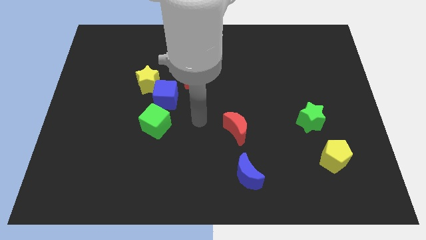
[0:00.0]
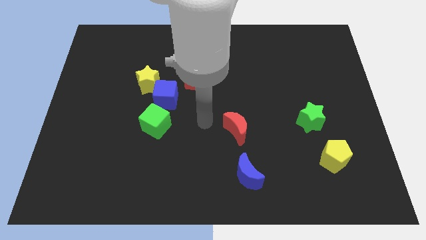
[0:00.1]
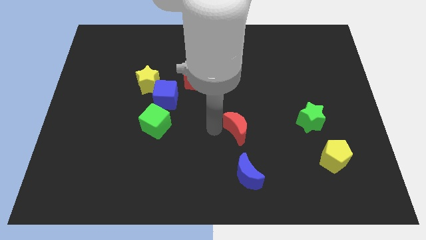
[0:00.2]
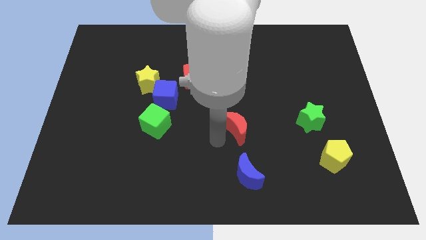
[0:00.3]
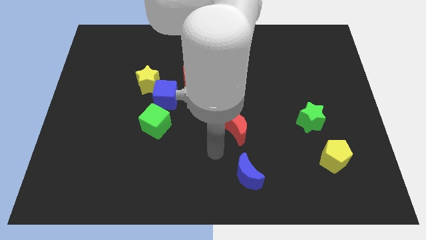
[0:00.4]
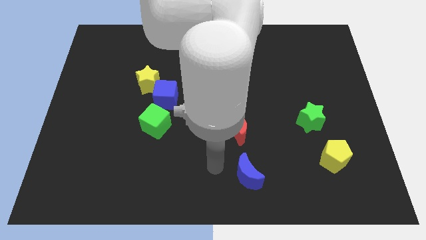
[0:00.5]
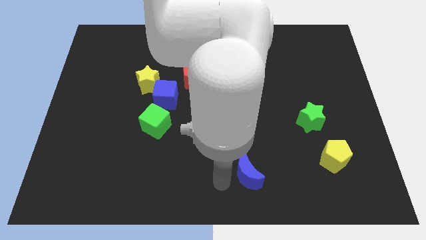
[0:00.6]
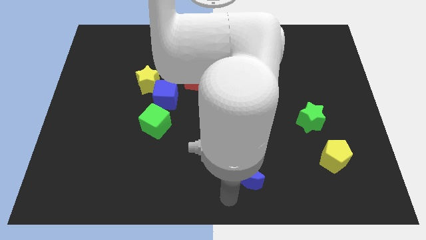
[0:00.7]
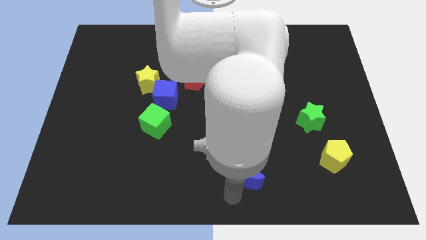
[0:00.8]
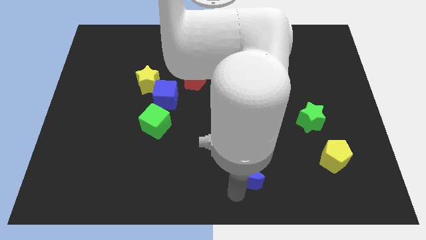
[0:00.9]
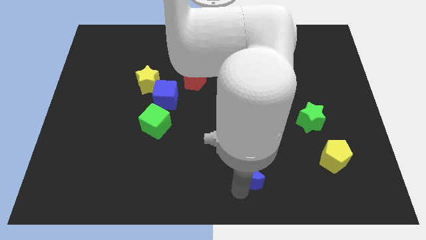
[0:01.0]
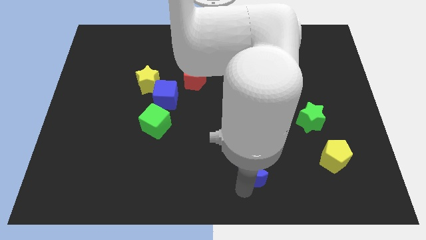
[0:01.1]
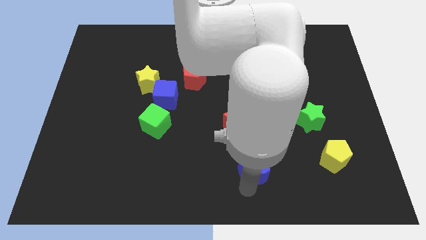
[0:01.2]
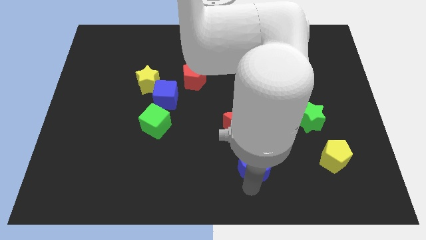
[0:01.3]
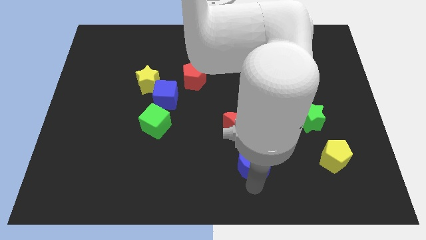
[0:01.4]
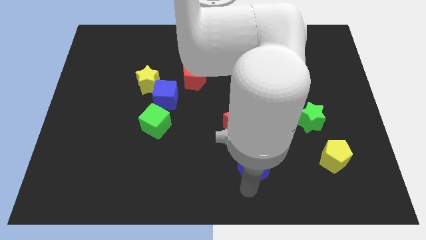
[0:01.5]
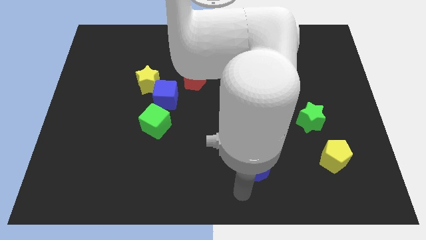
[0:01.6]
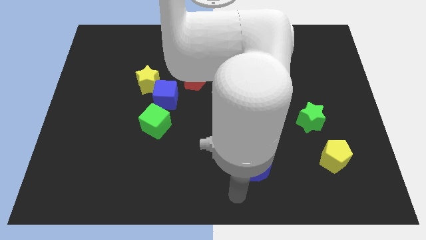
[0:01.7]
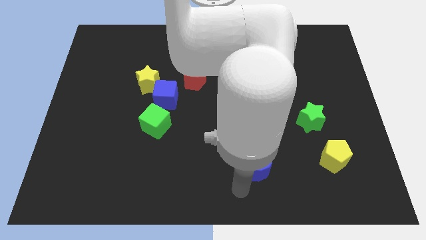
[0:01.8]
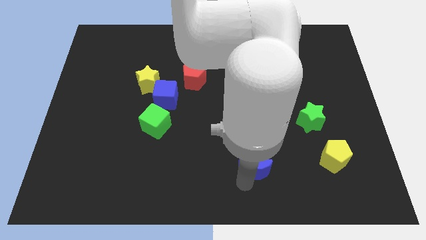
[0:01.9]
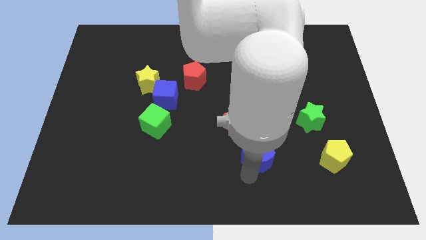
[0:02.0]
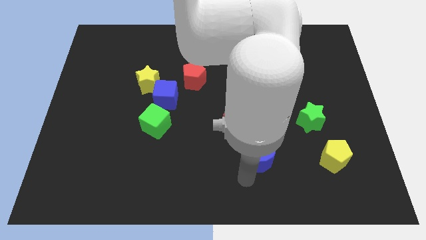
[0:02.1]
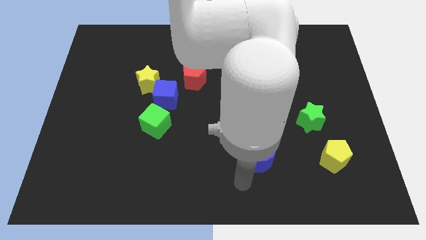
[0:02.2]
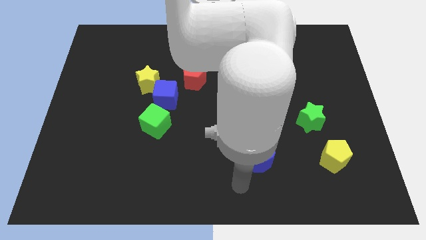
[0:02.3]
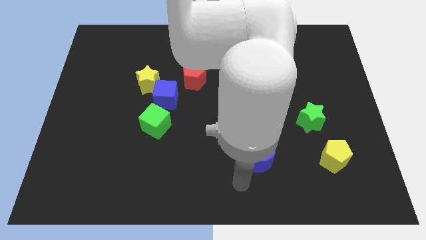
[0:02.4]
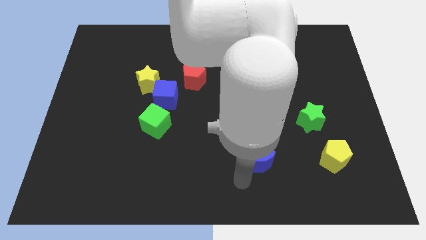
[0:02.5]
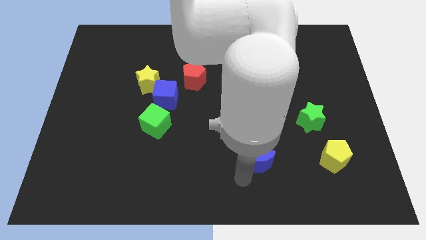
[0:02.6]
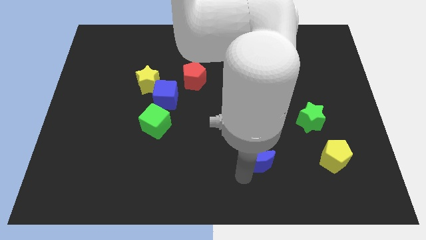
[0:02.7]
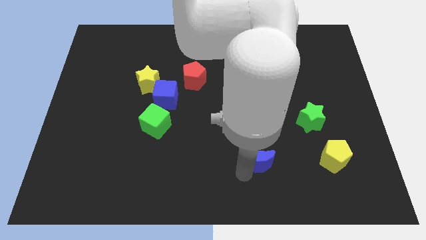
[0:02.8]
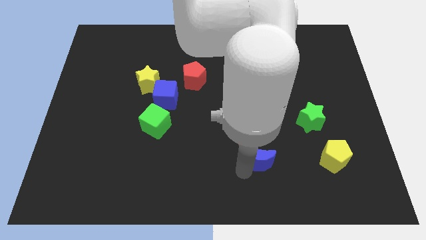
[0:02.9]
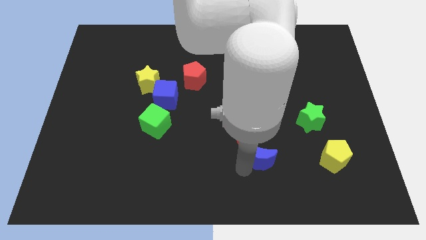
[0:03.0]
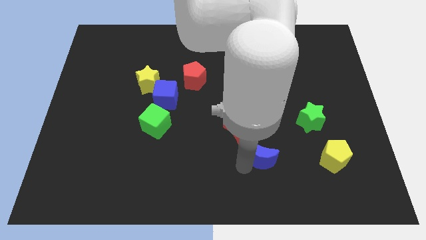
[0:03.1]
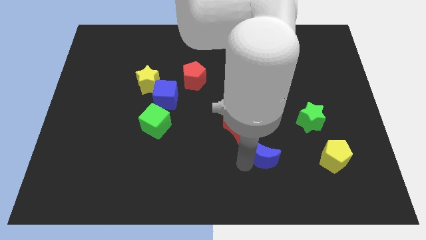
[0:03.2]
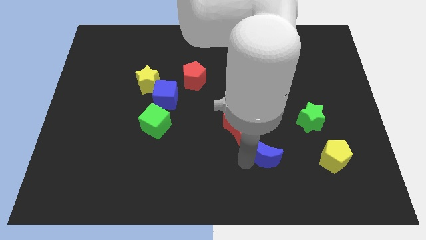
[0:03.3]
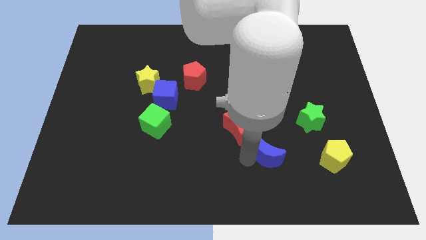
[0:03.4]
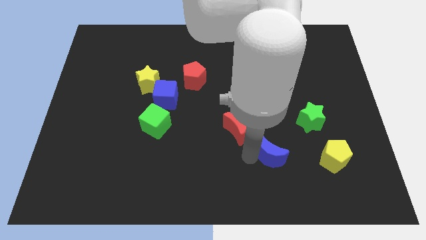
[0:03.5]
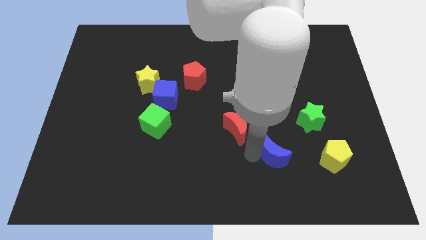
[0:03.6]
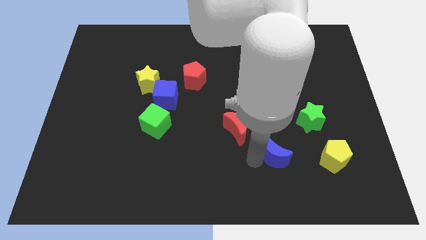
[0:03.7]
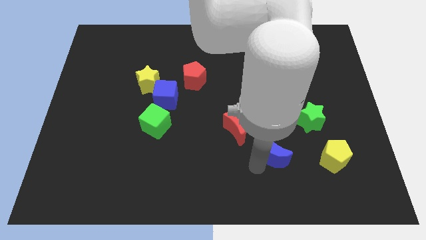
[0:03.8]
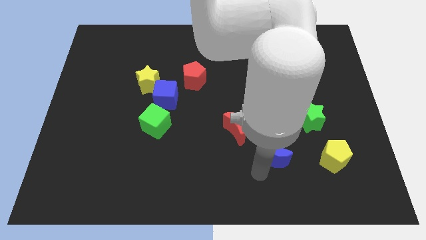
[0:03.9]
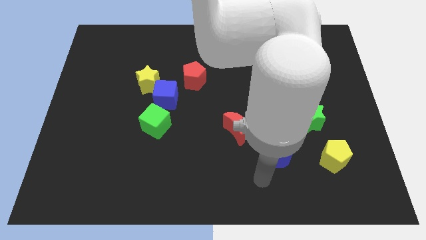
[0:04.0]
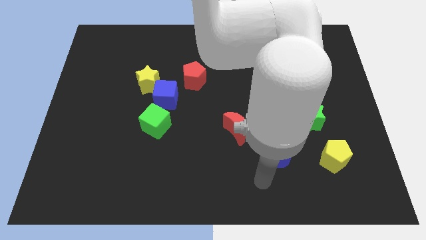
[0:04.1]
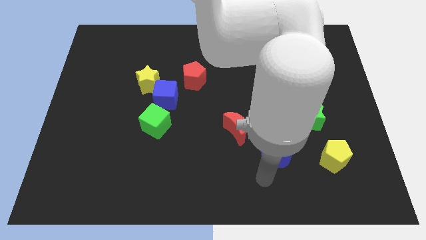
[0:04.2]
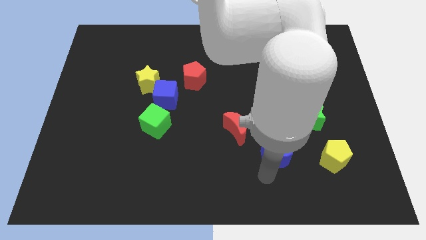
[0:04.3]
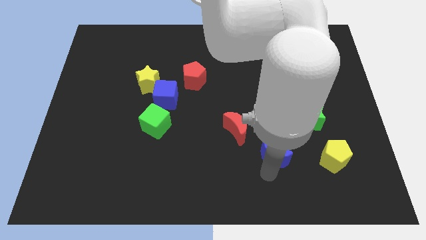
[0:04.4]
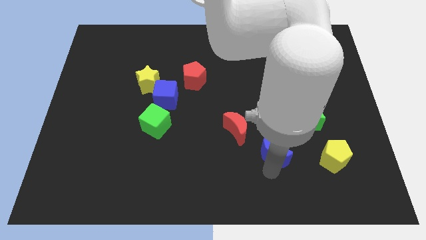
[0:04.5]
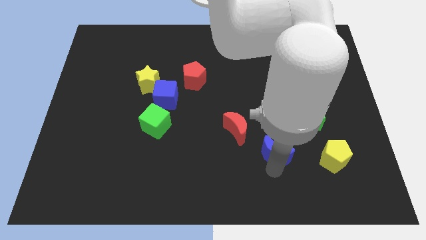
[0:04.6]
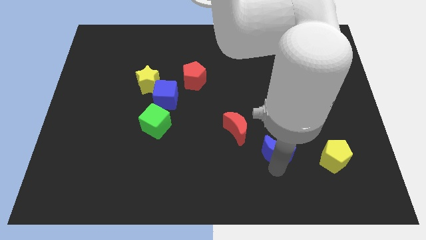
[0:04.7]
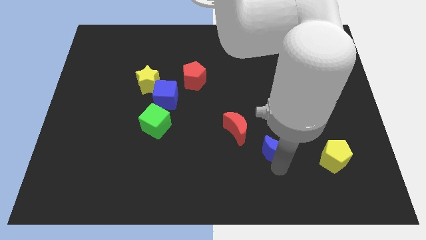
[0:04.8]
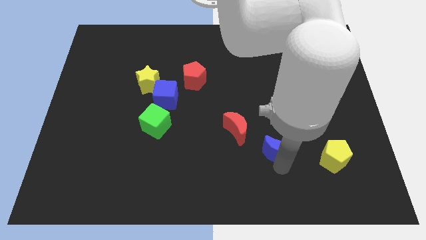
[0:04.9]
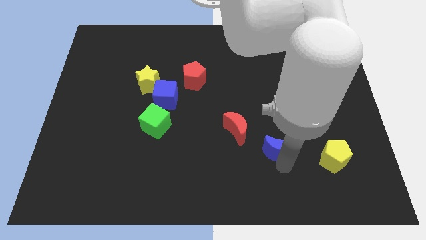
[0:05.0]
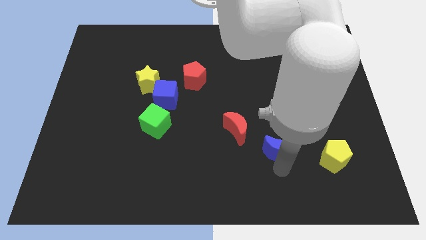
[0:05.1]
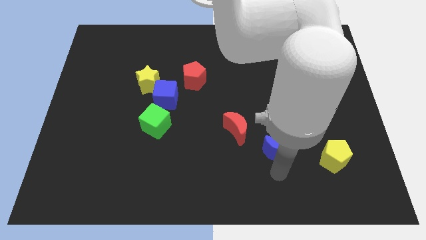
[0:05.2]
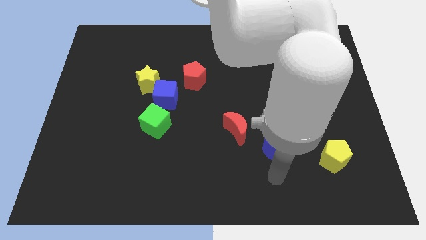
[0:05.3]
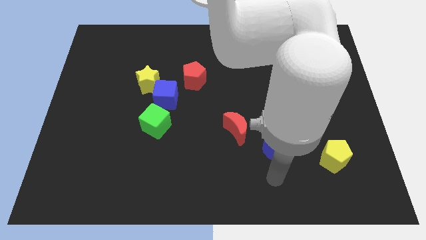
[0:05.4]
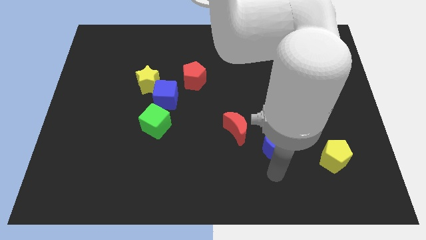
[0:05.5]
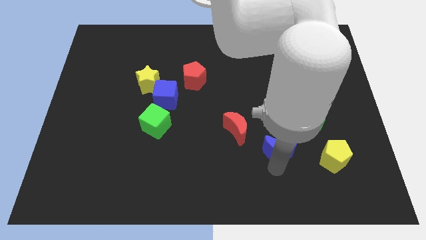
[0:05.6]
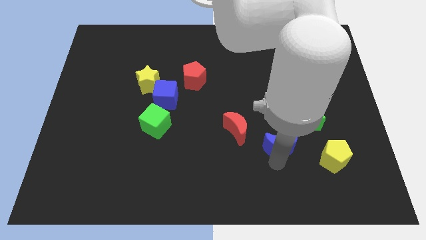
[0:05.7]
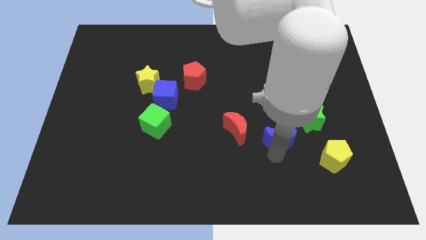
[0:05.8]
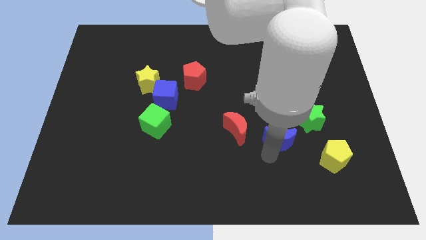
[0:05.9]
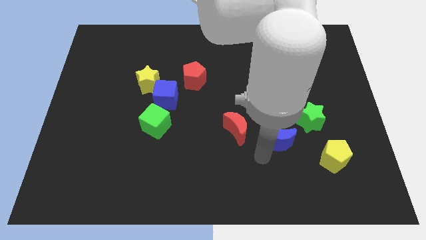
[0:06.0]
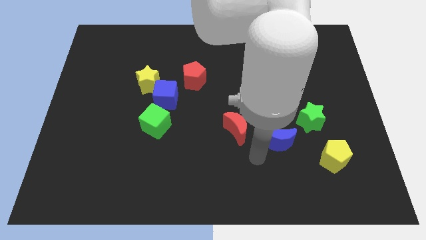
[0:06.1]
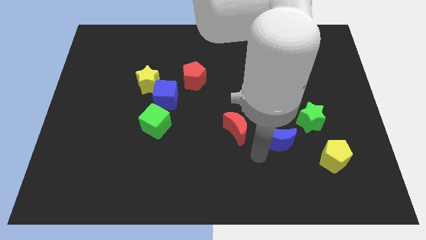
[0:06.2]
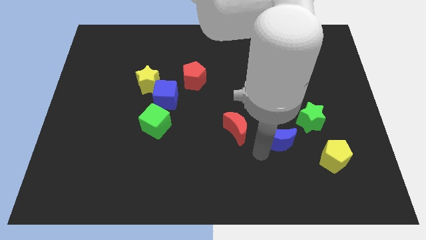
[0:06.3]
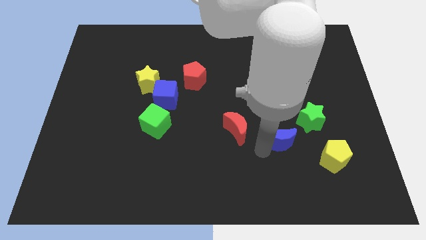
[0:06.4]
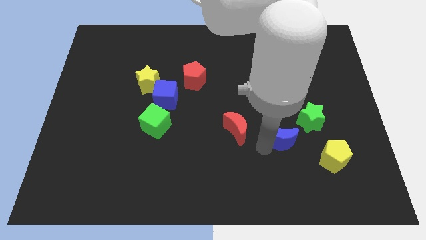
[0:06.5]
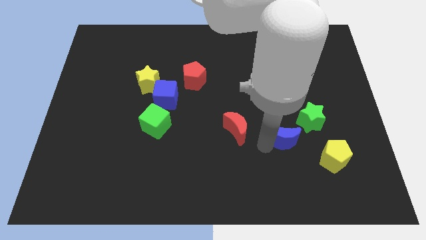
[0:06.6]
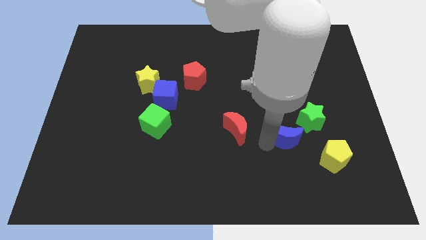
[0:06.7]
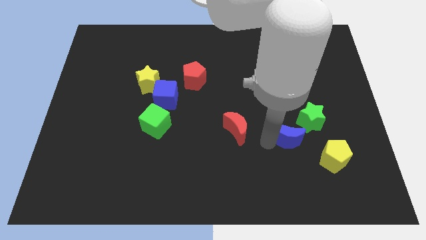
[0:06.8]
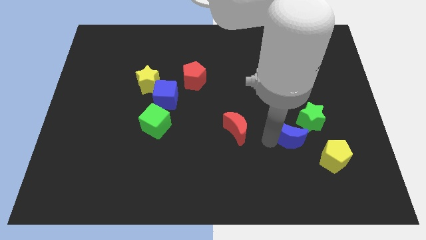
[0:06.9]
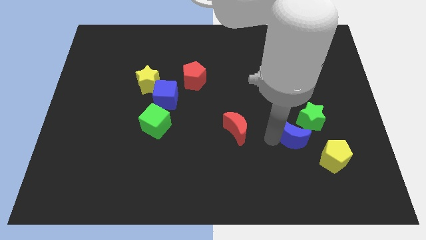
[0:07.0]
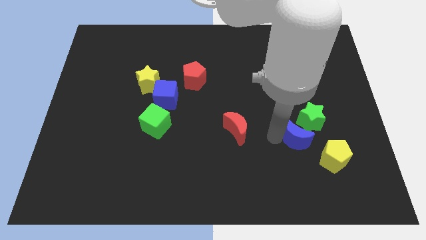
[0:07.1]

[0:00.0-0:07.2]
move the blue moon close to the green star

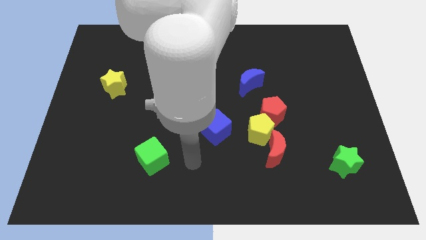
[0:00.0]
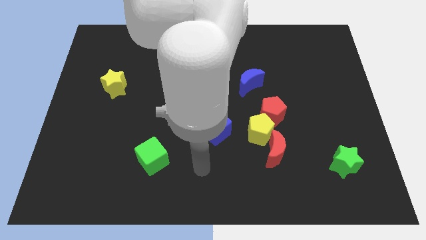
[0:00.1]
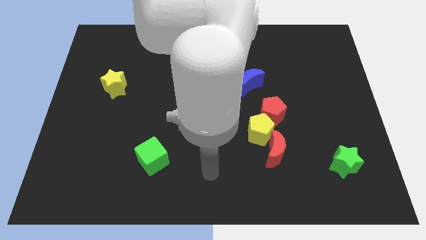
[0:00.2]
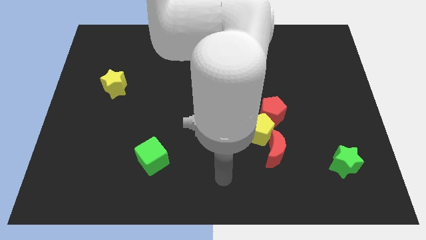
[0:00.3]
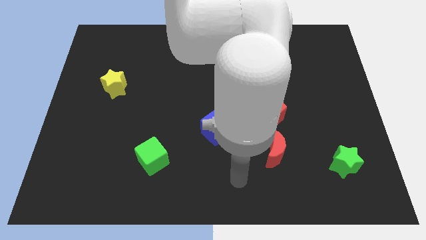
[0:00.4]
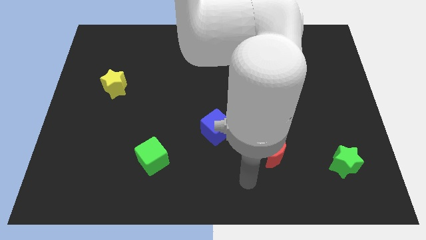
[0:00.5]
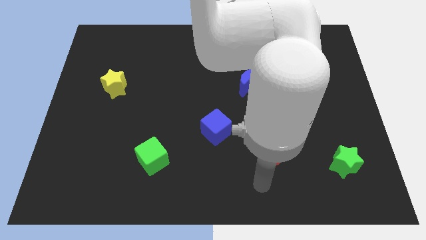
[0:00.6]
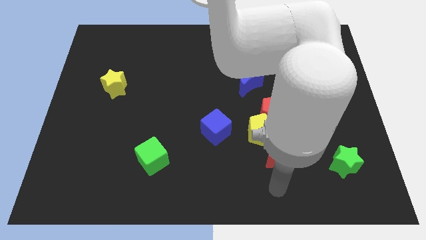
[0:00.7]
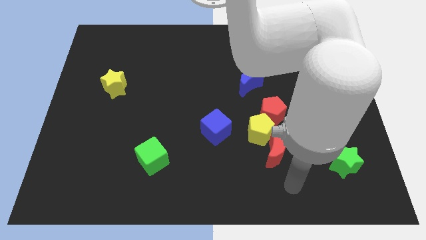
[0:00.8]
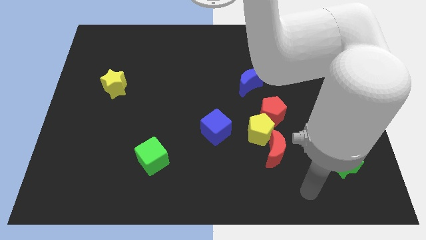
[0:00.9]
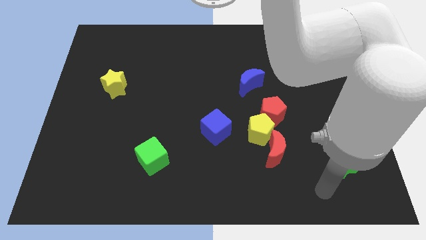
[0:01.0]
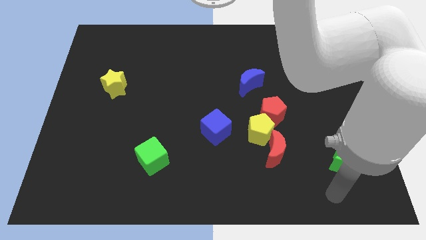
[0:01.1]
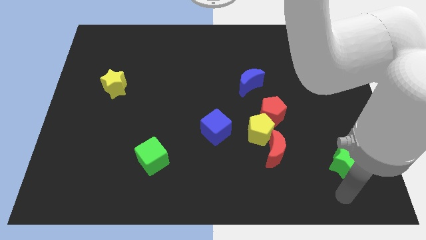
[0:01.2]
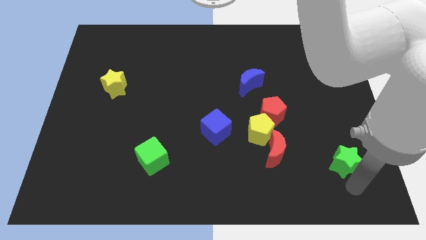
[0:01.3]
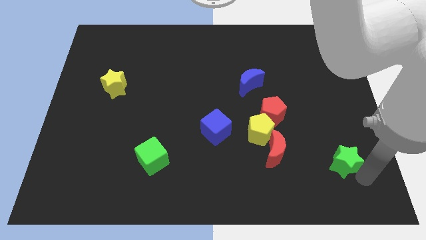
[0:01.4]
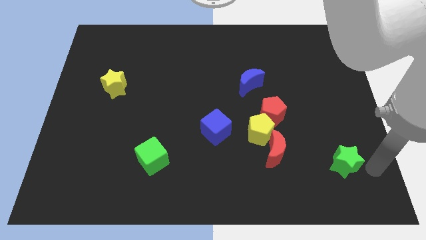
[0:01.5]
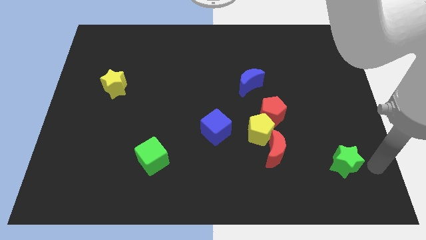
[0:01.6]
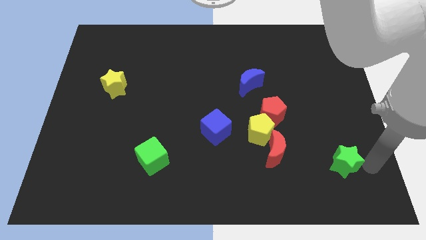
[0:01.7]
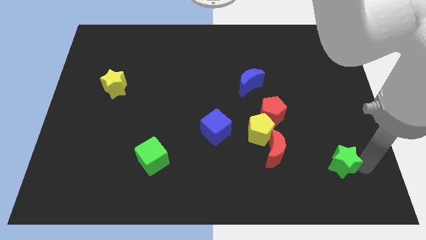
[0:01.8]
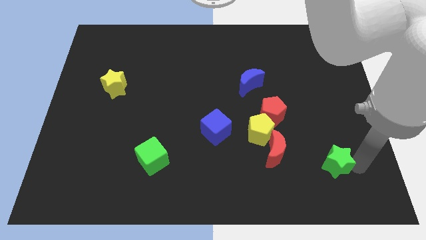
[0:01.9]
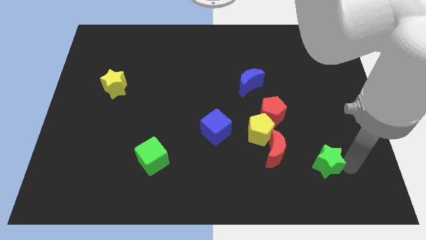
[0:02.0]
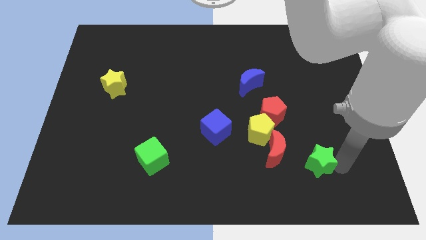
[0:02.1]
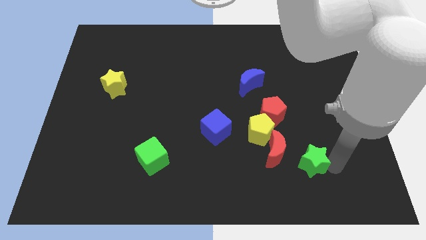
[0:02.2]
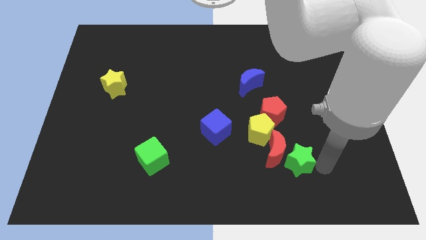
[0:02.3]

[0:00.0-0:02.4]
push the green star towards the red moon
